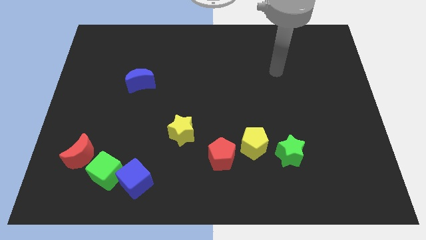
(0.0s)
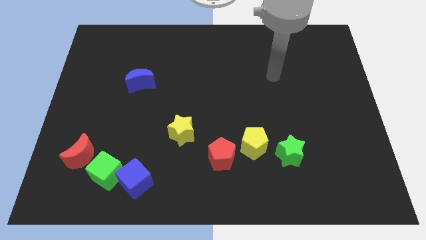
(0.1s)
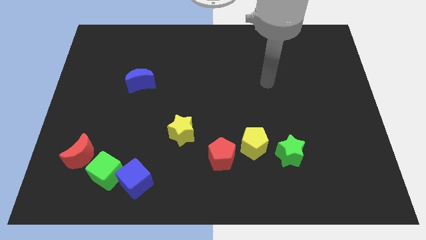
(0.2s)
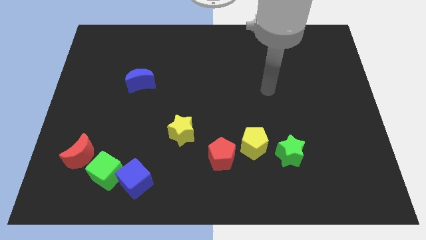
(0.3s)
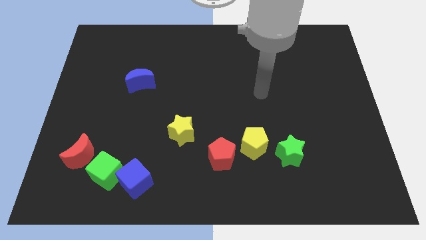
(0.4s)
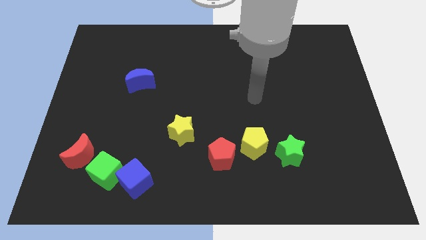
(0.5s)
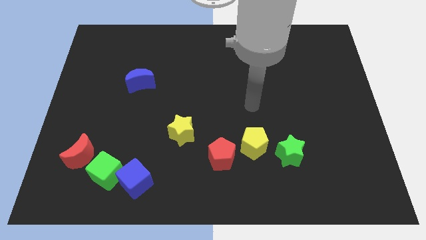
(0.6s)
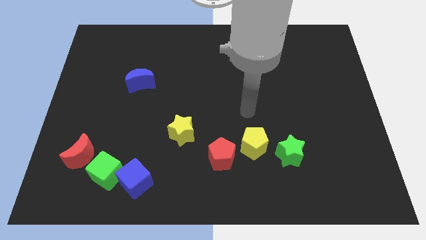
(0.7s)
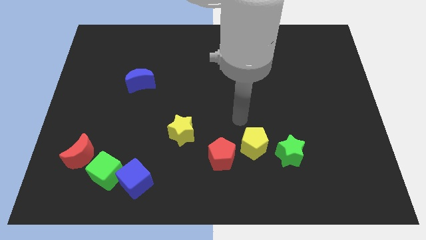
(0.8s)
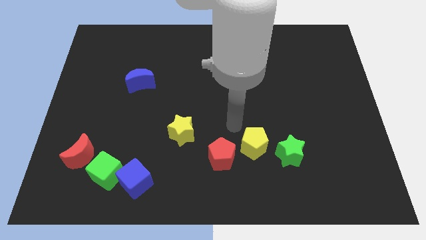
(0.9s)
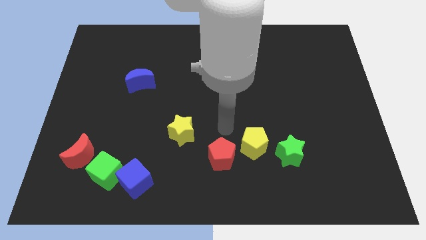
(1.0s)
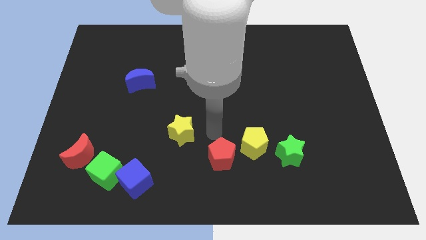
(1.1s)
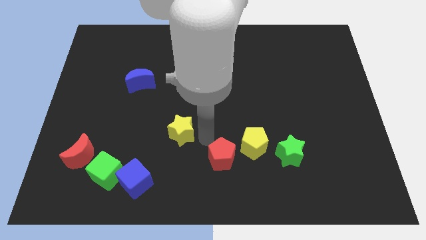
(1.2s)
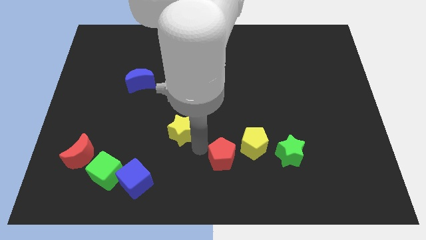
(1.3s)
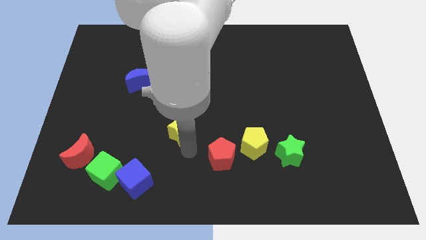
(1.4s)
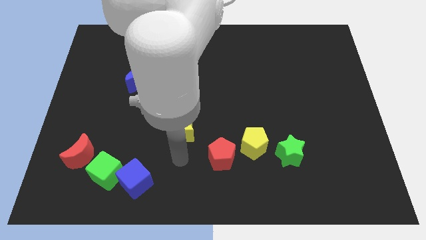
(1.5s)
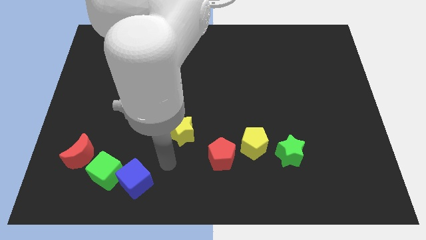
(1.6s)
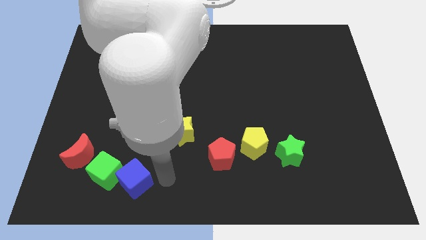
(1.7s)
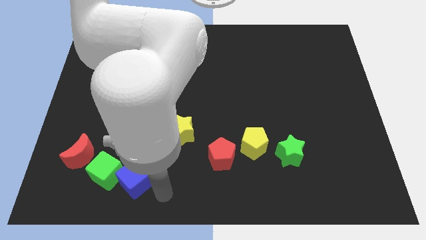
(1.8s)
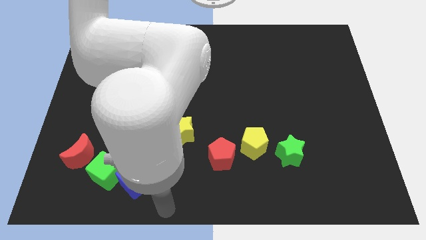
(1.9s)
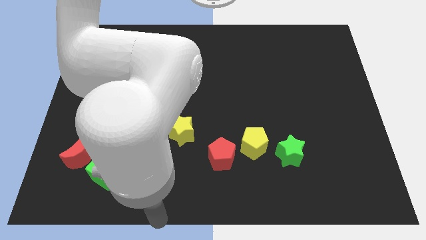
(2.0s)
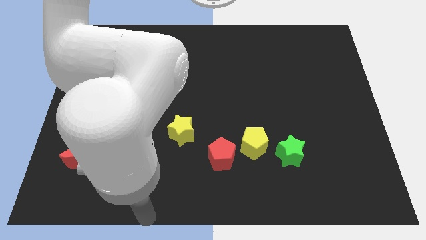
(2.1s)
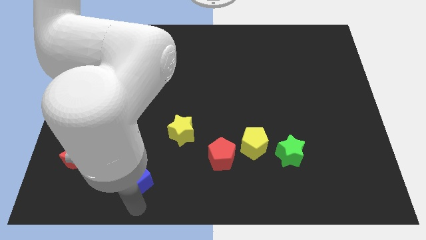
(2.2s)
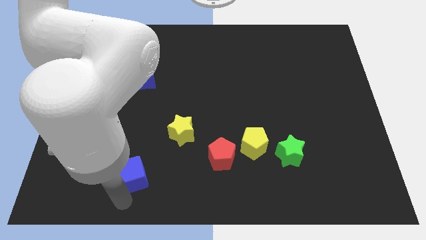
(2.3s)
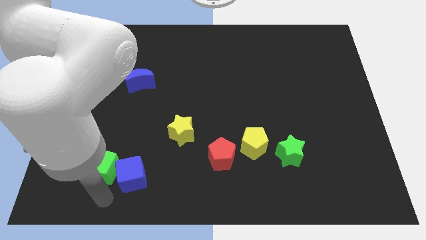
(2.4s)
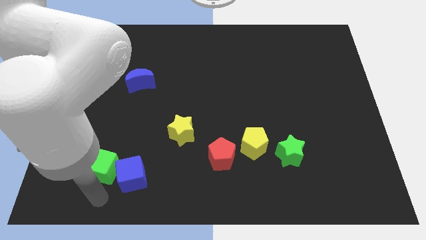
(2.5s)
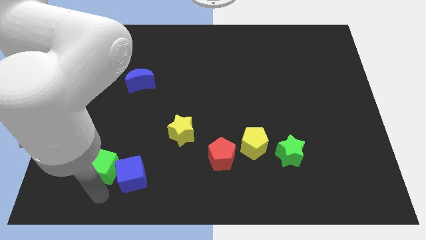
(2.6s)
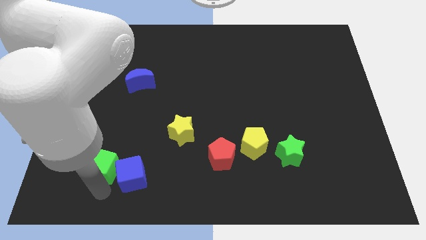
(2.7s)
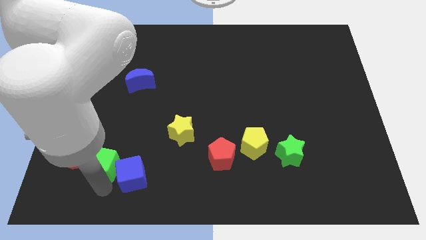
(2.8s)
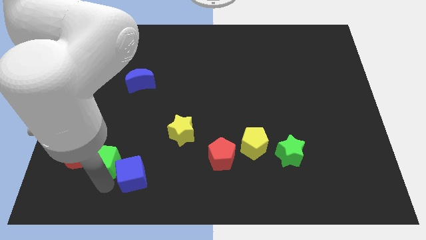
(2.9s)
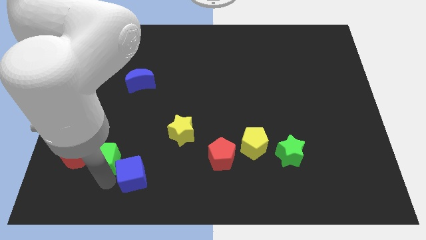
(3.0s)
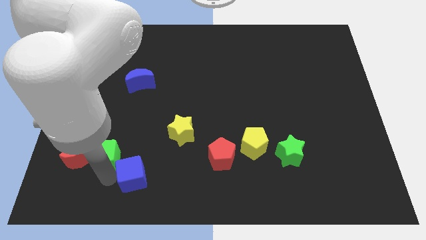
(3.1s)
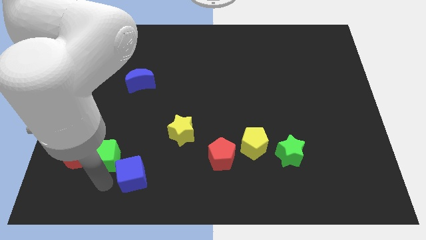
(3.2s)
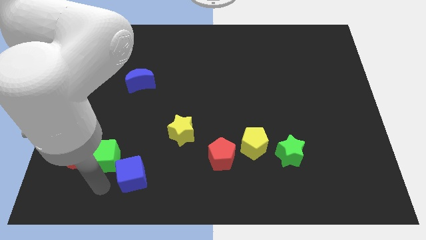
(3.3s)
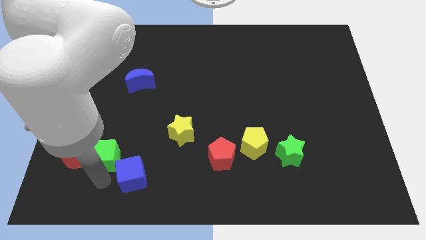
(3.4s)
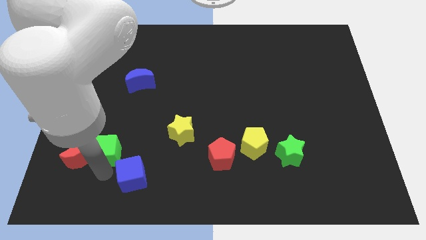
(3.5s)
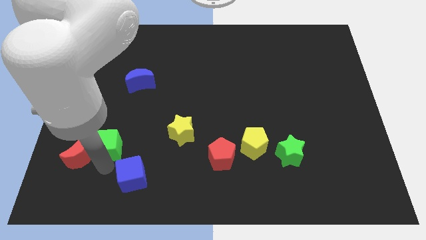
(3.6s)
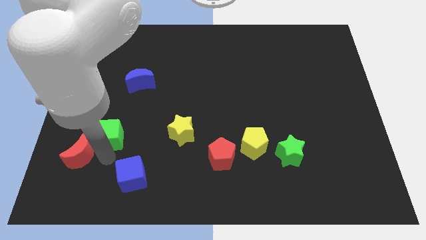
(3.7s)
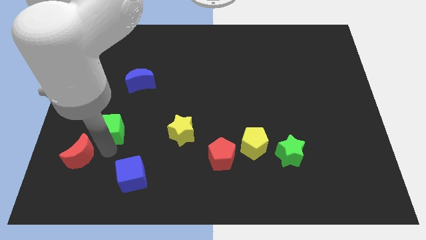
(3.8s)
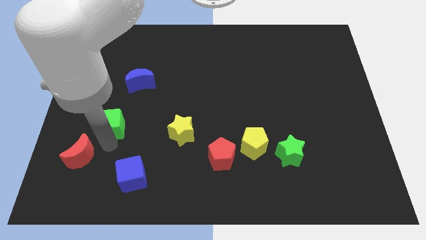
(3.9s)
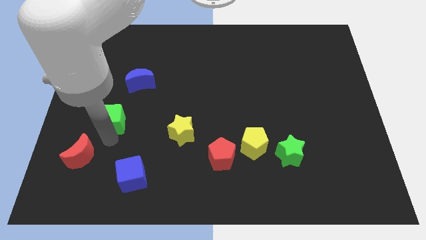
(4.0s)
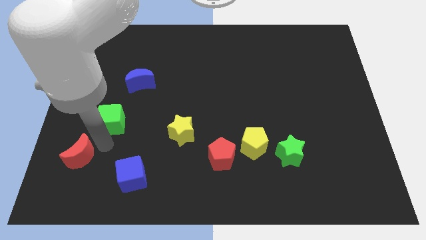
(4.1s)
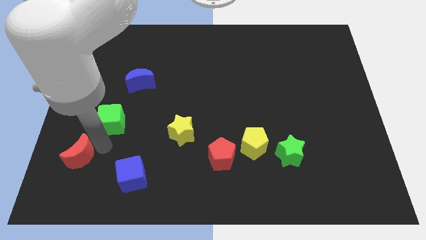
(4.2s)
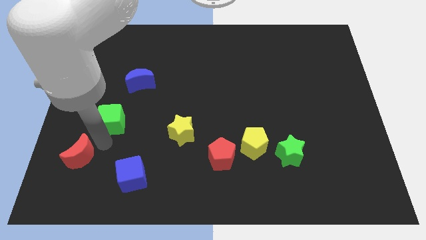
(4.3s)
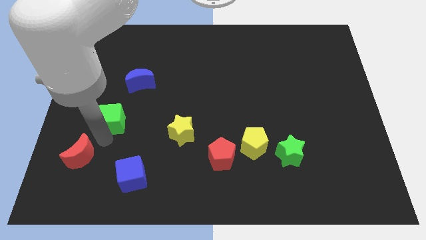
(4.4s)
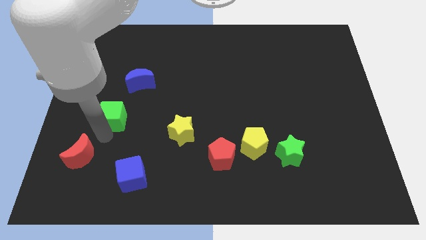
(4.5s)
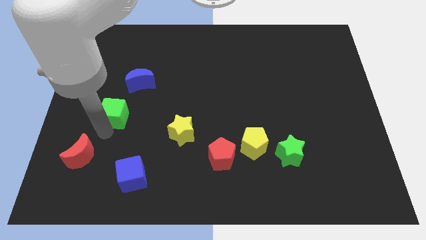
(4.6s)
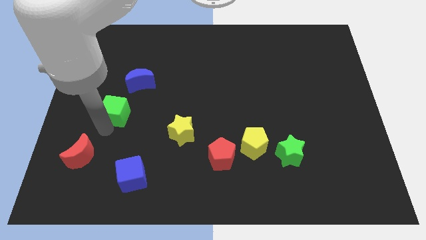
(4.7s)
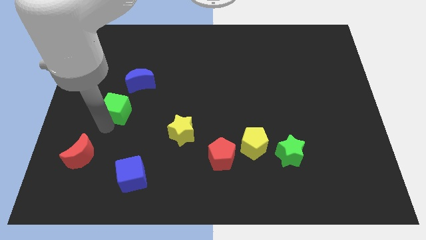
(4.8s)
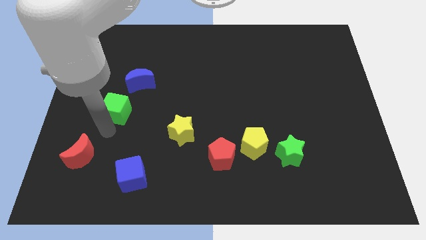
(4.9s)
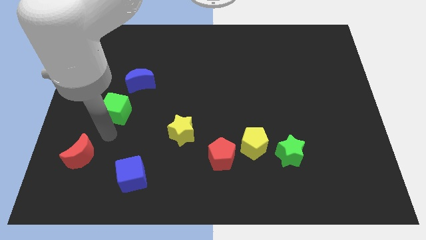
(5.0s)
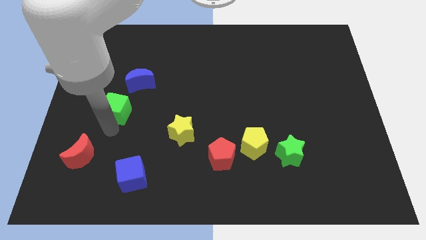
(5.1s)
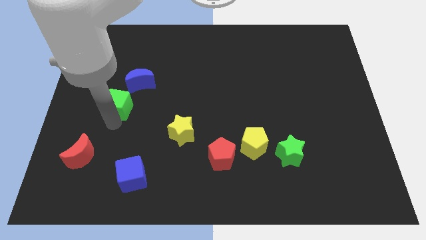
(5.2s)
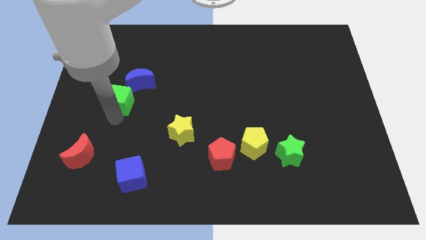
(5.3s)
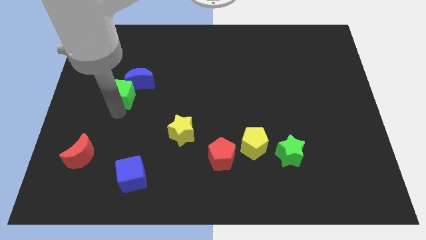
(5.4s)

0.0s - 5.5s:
slide the green cube upwards

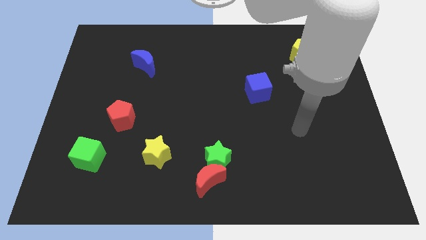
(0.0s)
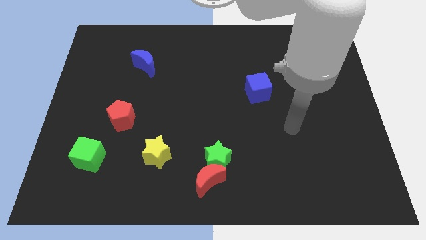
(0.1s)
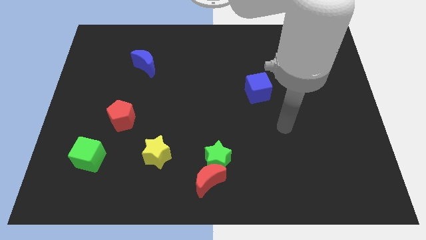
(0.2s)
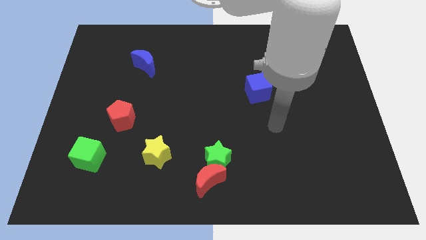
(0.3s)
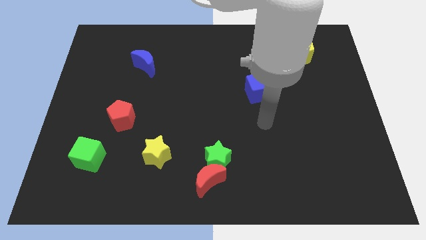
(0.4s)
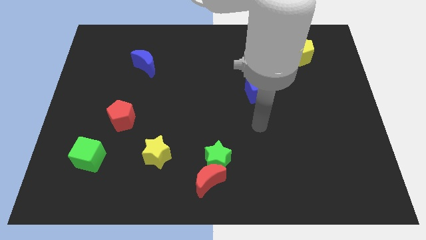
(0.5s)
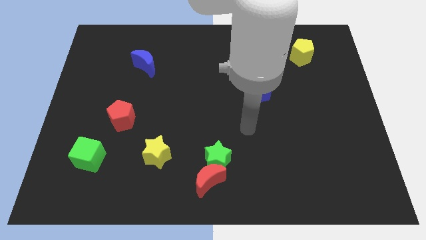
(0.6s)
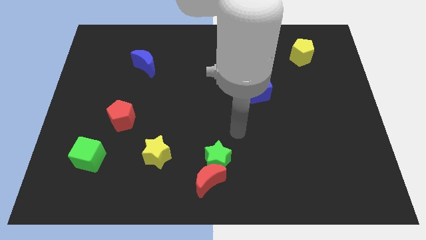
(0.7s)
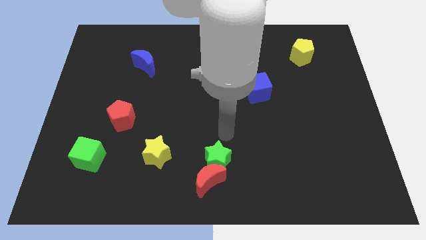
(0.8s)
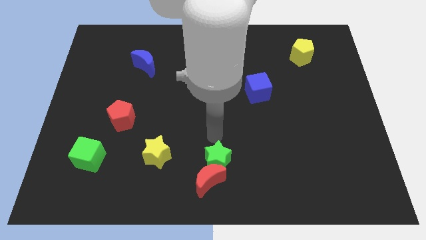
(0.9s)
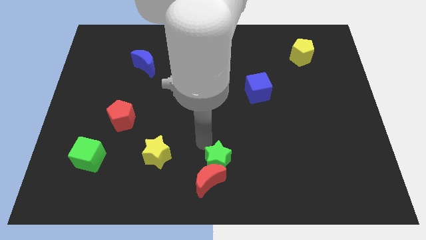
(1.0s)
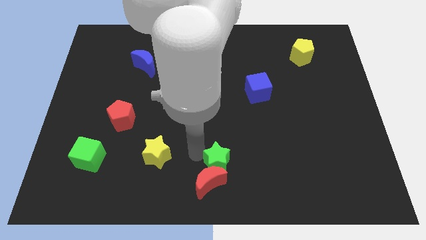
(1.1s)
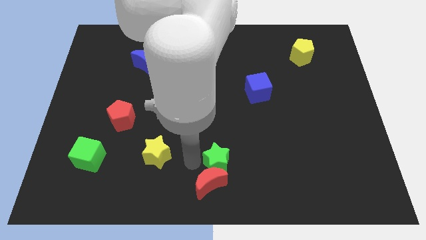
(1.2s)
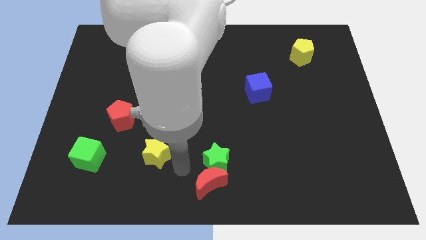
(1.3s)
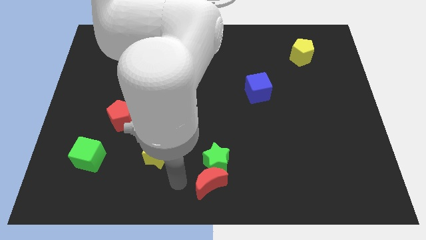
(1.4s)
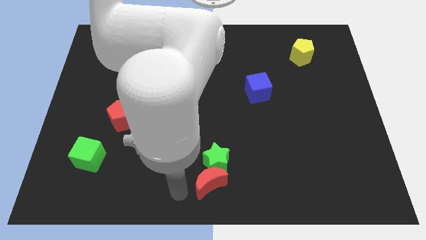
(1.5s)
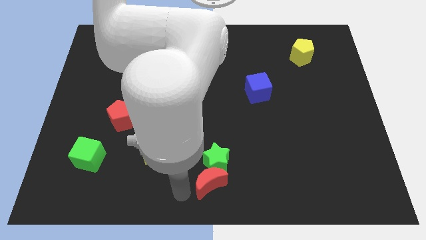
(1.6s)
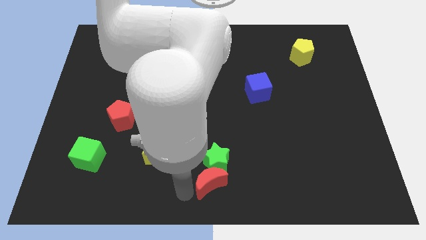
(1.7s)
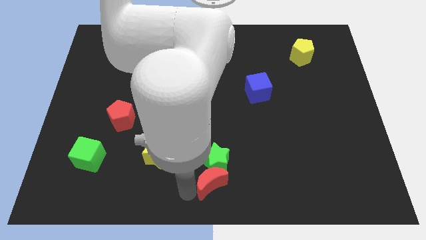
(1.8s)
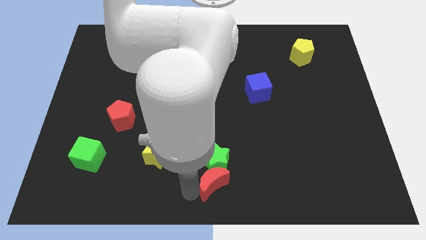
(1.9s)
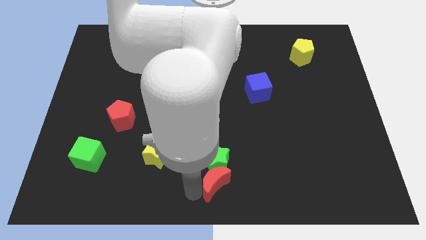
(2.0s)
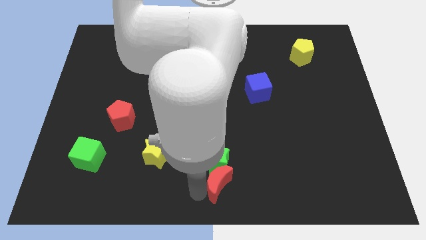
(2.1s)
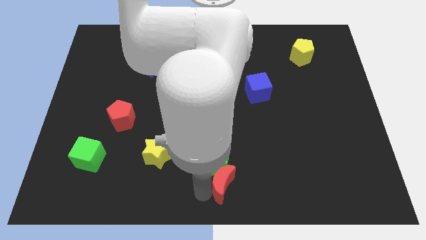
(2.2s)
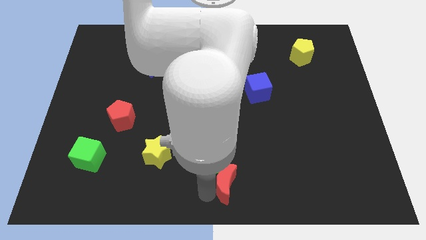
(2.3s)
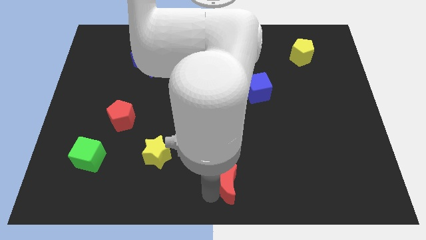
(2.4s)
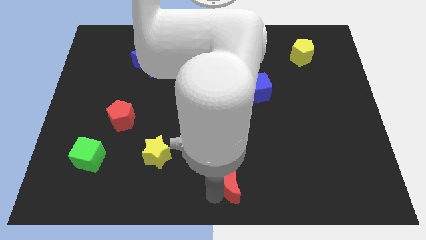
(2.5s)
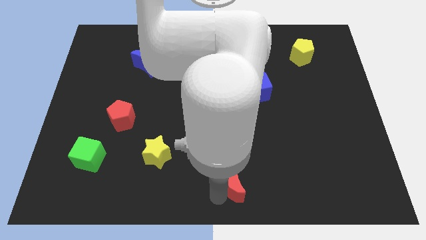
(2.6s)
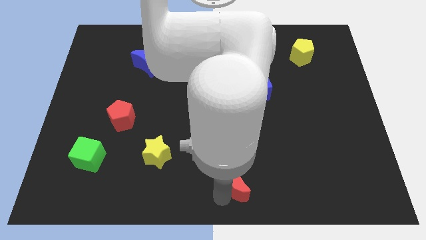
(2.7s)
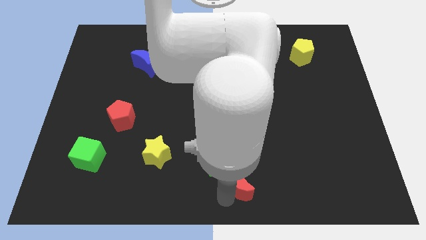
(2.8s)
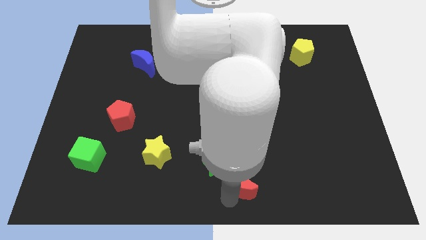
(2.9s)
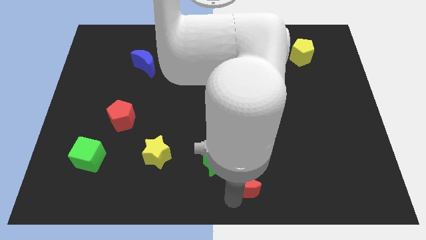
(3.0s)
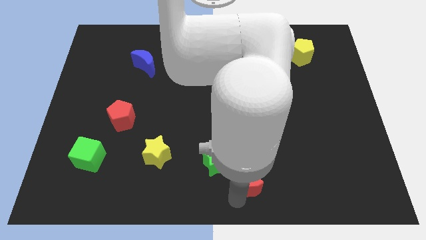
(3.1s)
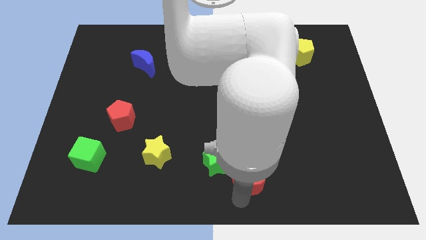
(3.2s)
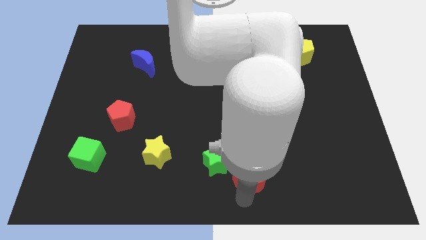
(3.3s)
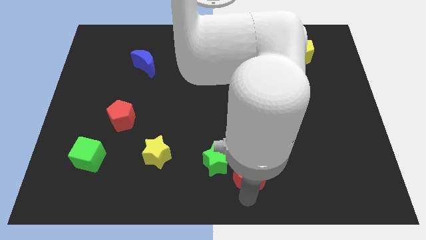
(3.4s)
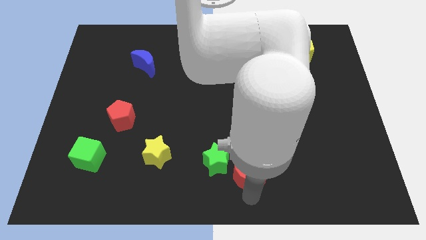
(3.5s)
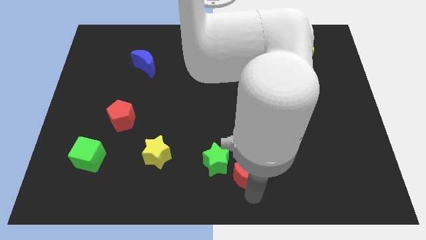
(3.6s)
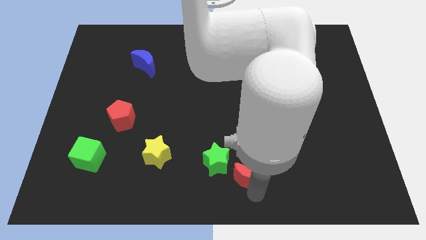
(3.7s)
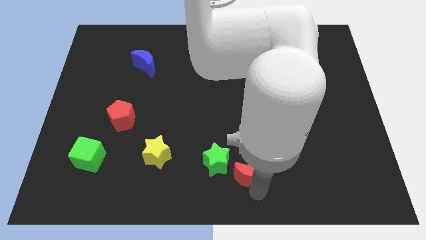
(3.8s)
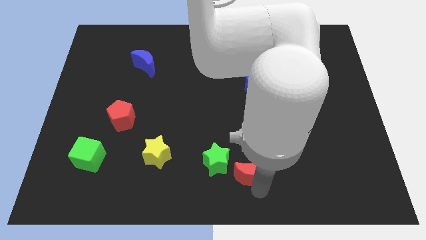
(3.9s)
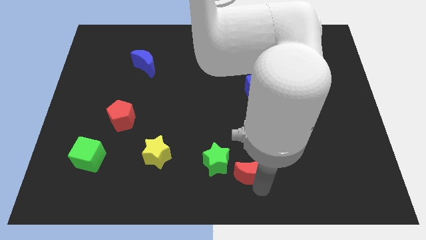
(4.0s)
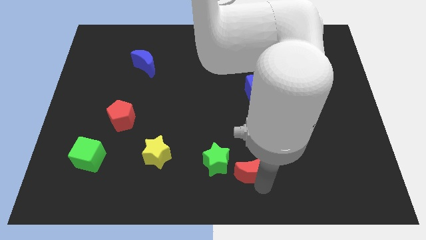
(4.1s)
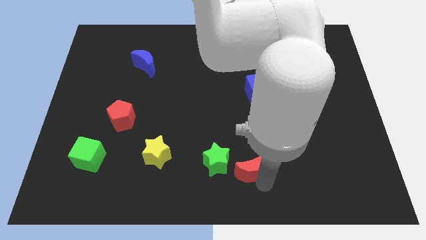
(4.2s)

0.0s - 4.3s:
move the red moon up and right diagonally a little
